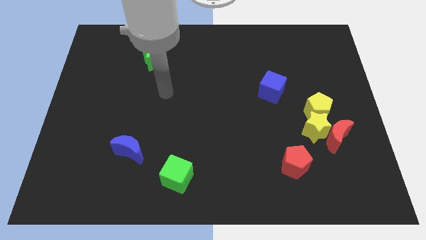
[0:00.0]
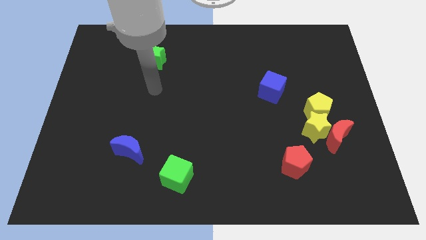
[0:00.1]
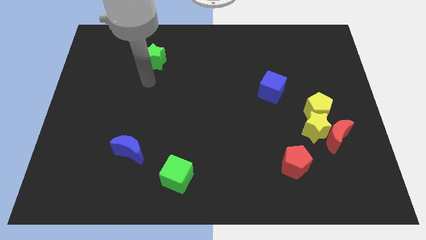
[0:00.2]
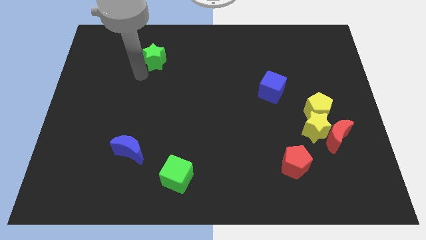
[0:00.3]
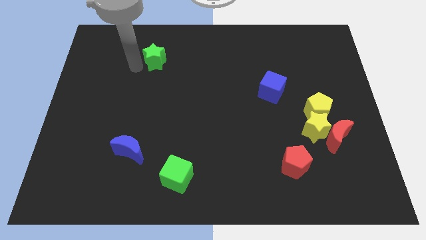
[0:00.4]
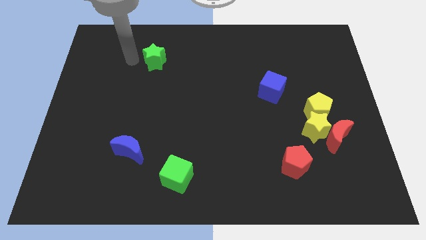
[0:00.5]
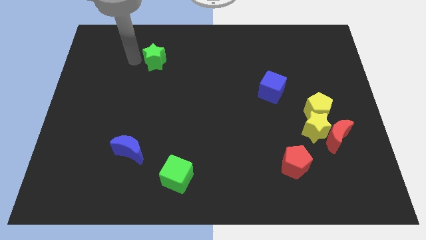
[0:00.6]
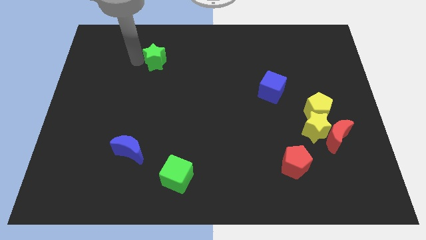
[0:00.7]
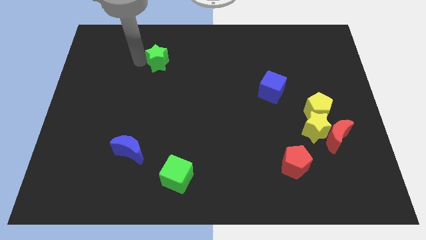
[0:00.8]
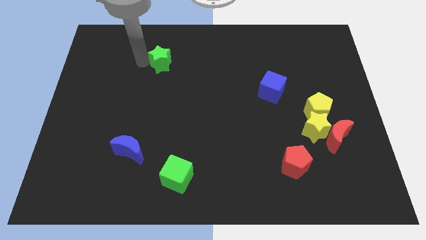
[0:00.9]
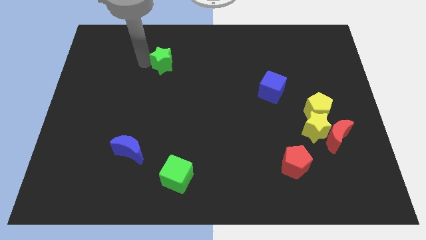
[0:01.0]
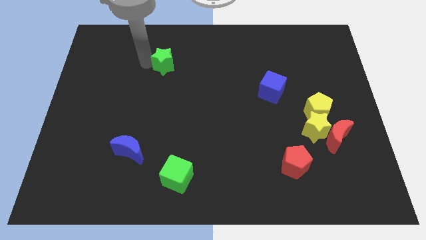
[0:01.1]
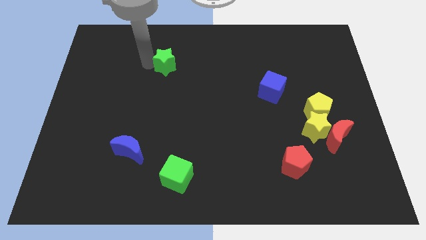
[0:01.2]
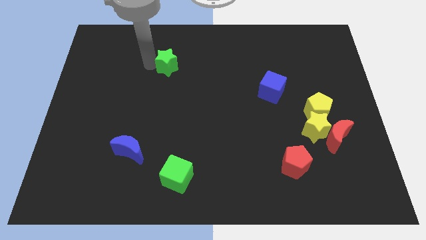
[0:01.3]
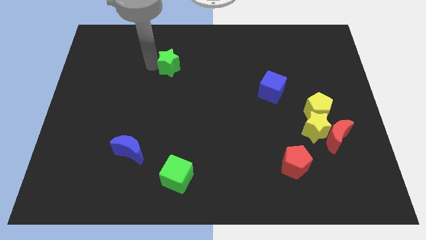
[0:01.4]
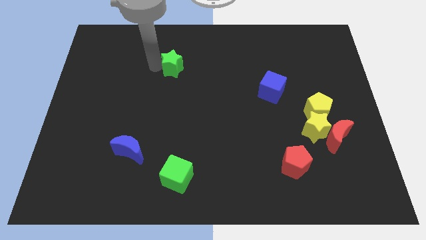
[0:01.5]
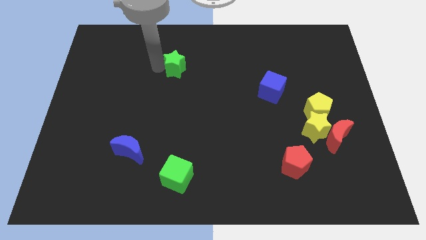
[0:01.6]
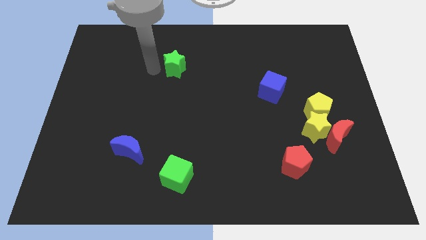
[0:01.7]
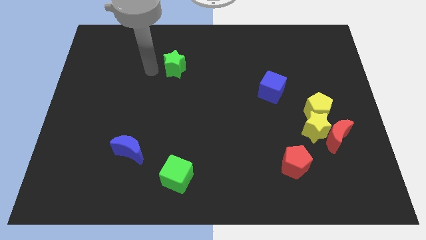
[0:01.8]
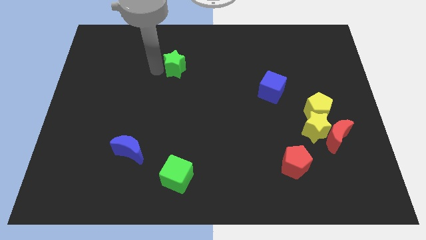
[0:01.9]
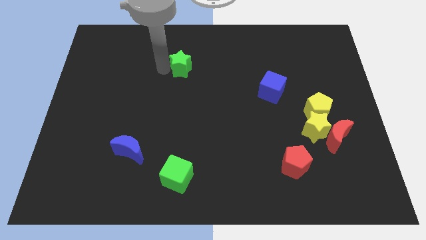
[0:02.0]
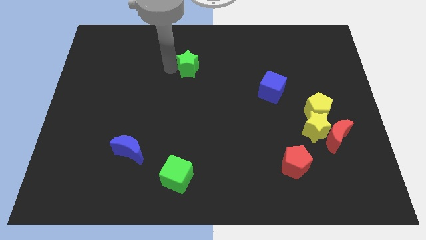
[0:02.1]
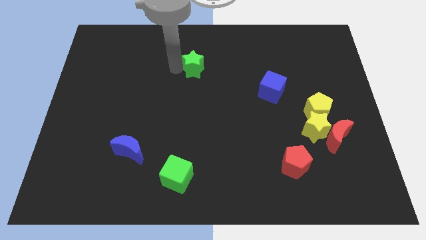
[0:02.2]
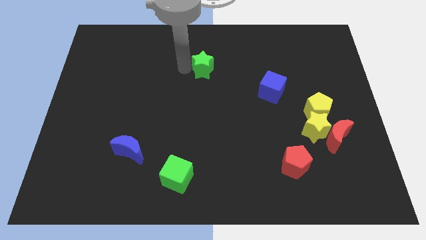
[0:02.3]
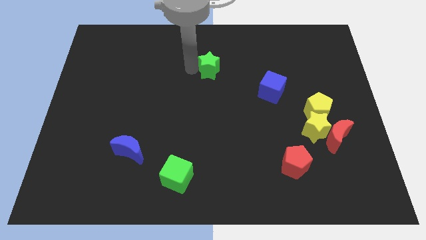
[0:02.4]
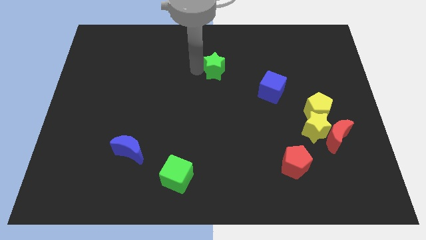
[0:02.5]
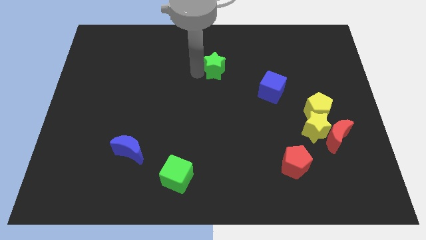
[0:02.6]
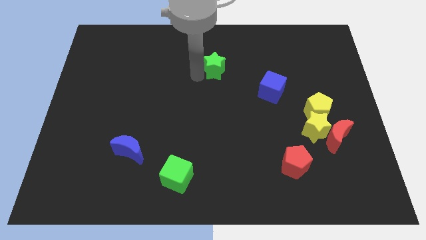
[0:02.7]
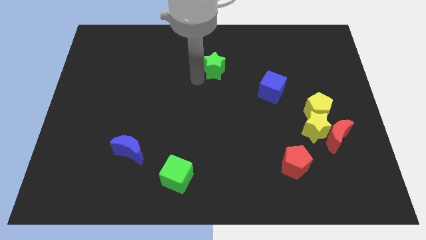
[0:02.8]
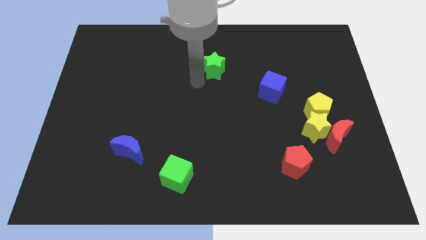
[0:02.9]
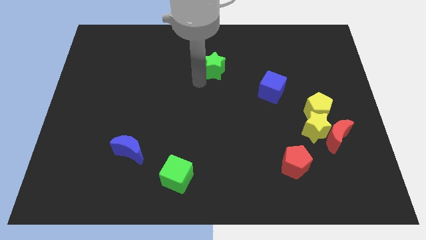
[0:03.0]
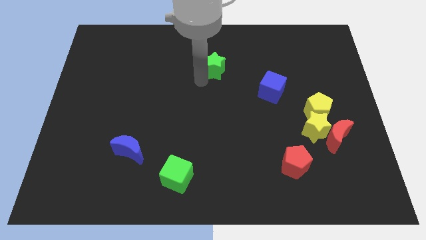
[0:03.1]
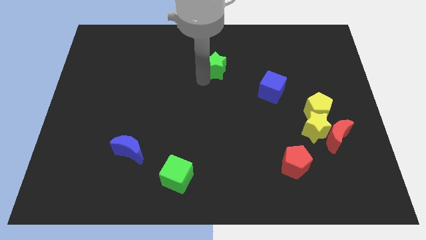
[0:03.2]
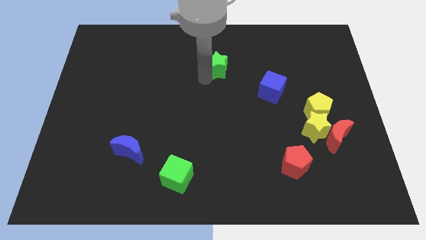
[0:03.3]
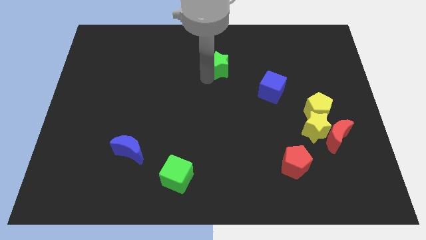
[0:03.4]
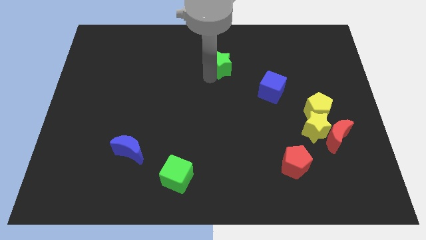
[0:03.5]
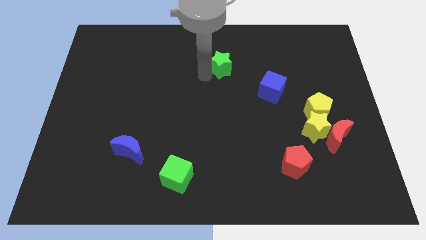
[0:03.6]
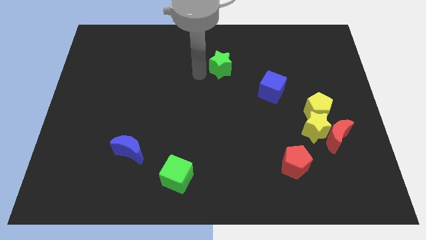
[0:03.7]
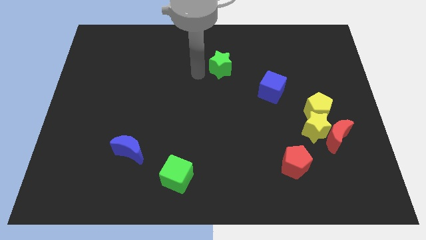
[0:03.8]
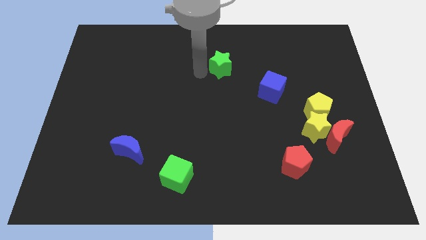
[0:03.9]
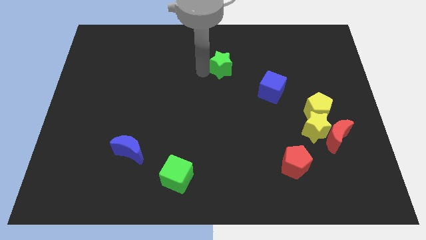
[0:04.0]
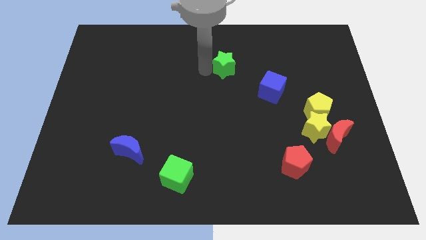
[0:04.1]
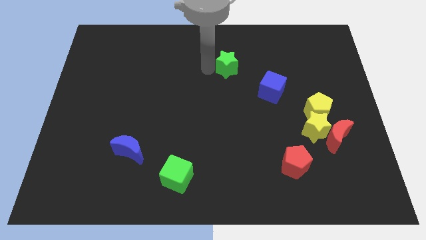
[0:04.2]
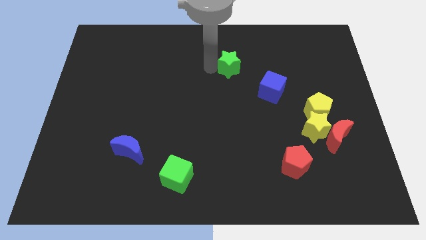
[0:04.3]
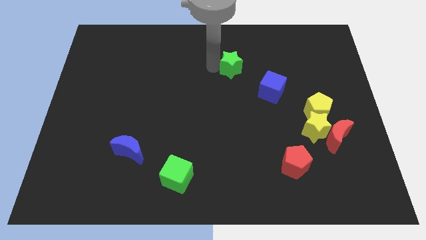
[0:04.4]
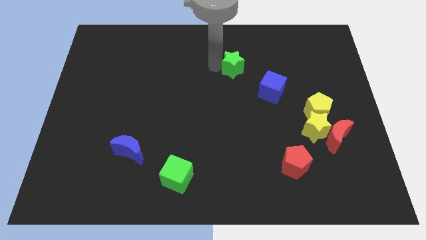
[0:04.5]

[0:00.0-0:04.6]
move the green star to the right

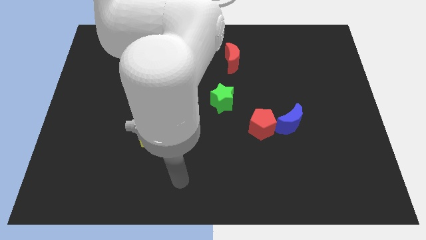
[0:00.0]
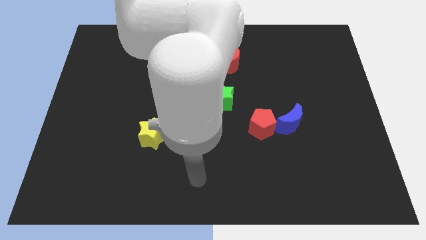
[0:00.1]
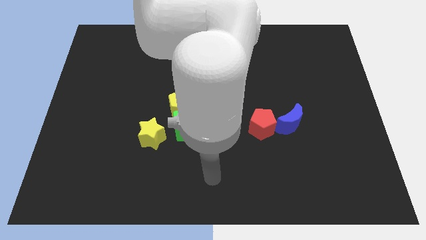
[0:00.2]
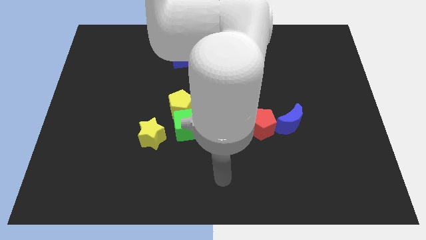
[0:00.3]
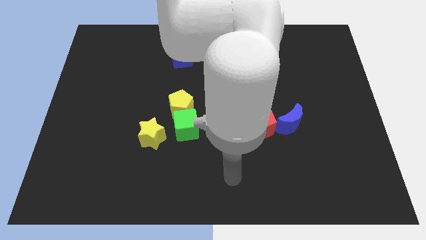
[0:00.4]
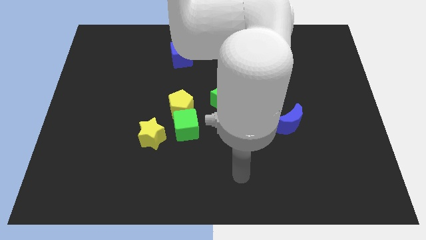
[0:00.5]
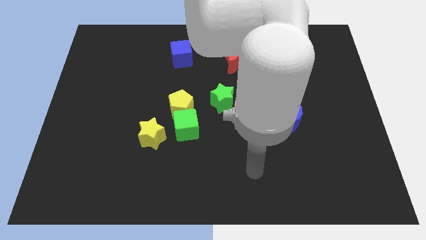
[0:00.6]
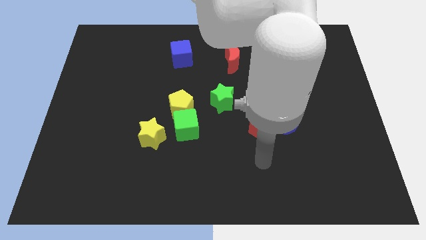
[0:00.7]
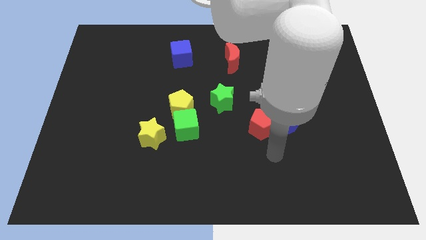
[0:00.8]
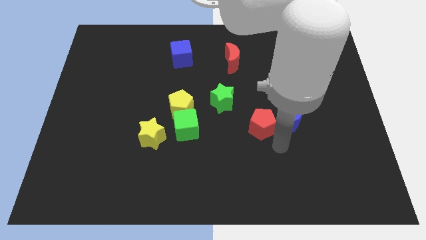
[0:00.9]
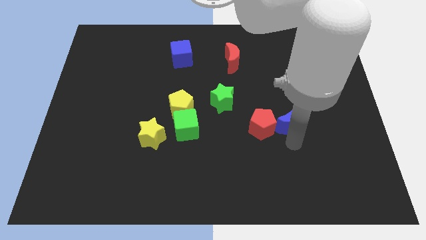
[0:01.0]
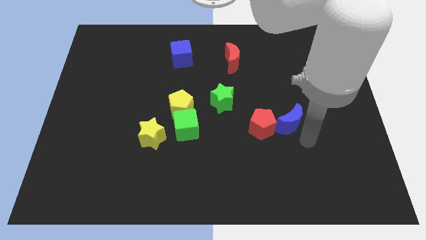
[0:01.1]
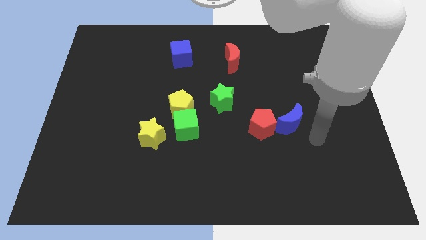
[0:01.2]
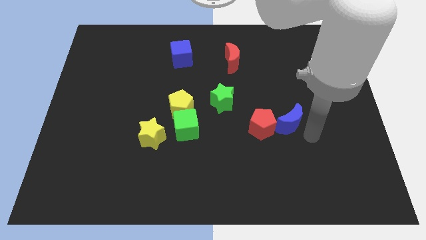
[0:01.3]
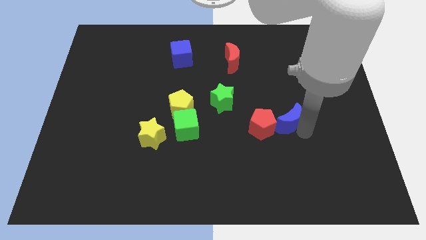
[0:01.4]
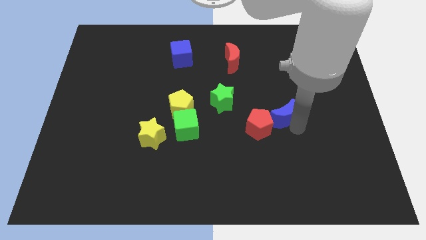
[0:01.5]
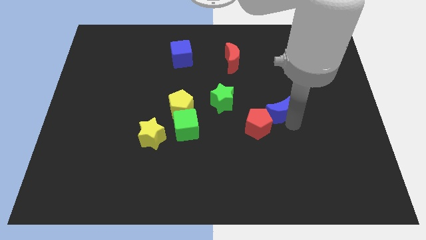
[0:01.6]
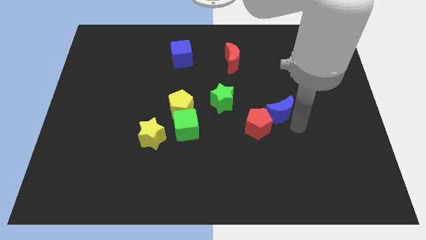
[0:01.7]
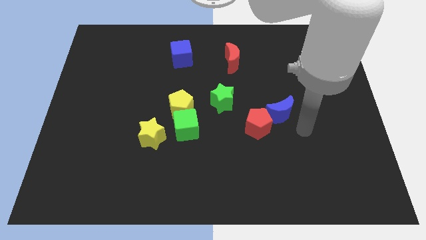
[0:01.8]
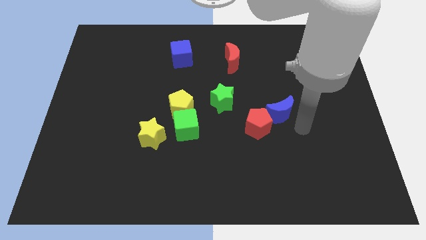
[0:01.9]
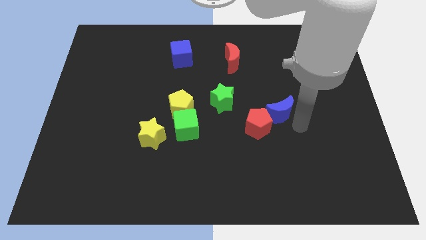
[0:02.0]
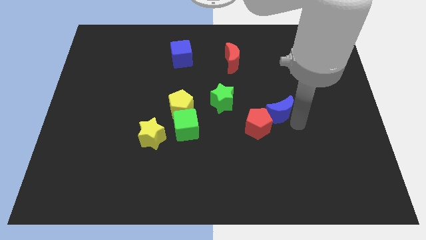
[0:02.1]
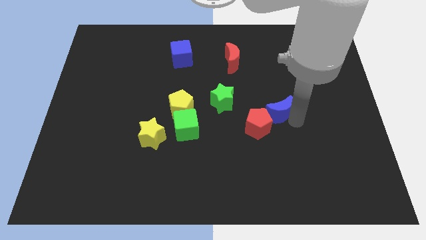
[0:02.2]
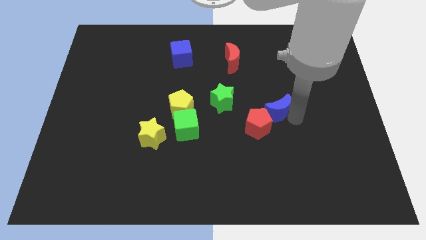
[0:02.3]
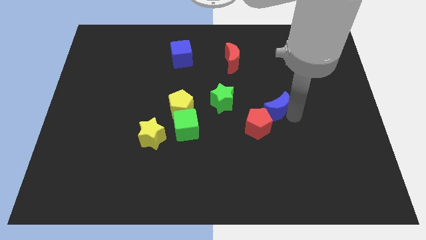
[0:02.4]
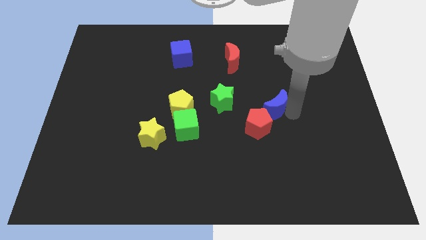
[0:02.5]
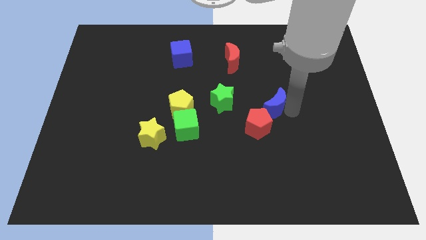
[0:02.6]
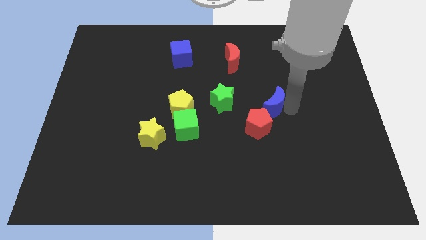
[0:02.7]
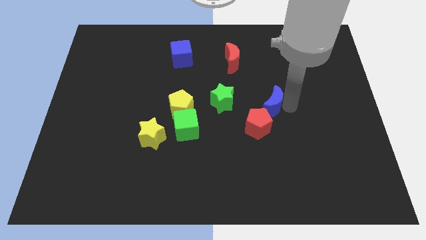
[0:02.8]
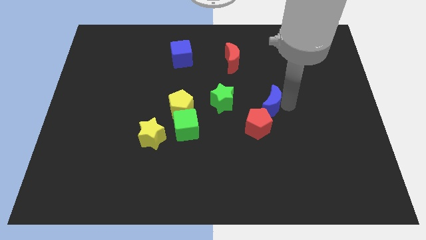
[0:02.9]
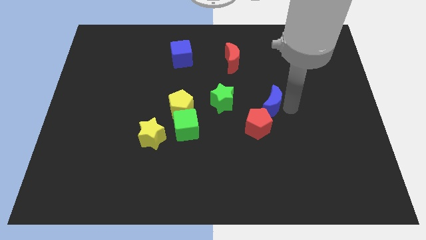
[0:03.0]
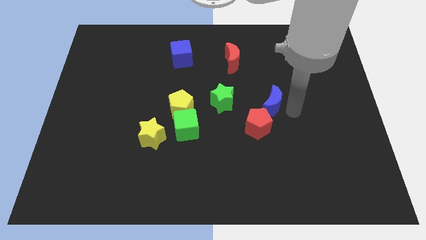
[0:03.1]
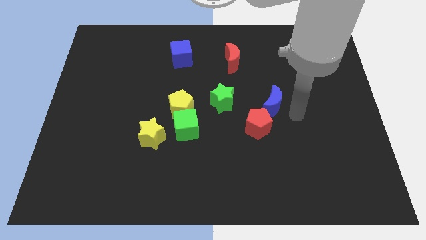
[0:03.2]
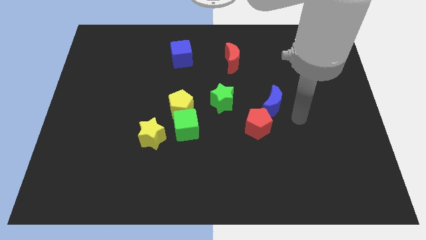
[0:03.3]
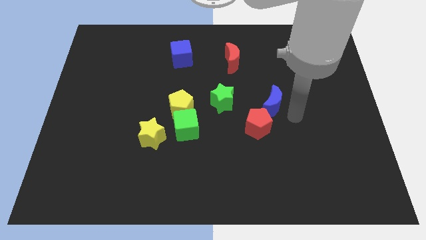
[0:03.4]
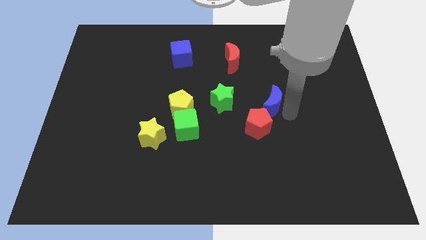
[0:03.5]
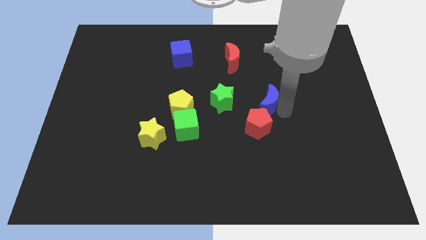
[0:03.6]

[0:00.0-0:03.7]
slide the blue moon diagonally up and left somewhat

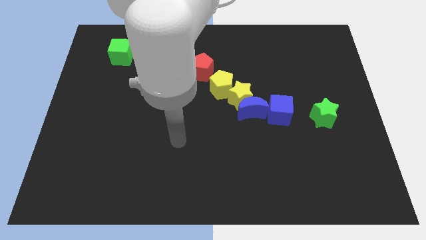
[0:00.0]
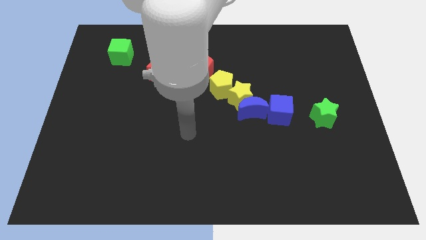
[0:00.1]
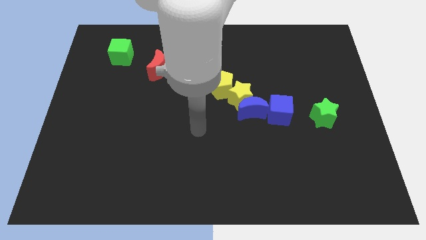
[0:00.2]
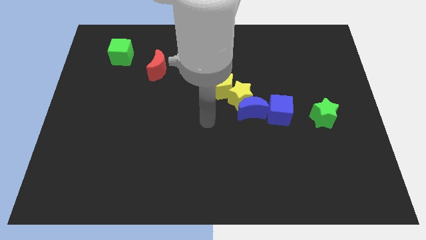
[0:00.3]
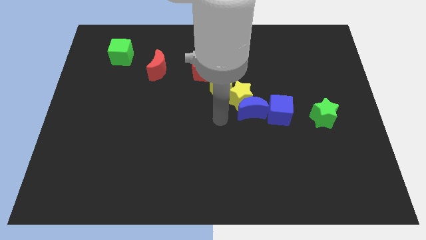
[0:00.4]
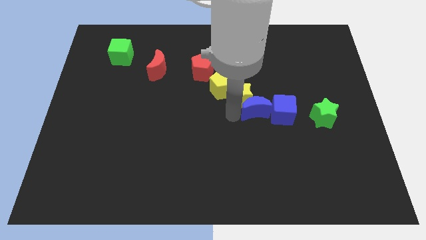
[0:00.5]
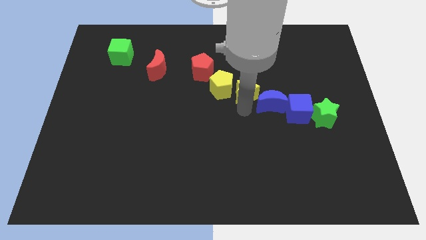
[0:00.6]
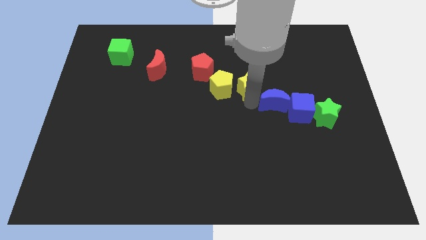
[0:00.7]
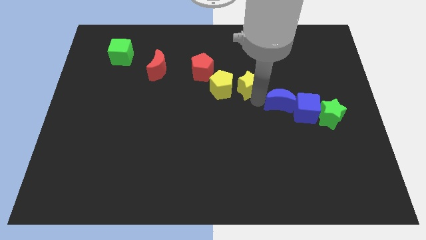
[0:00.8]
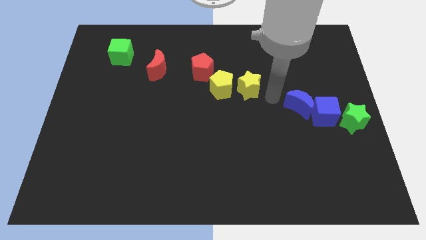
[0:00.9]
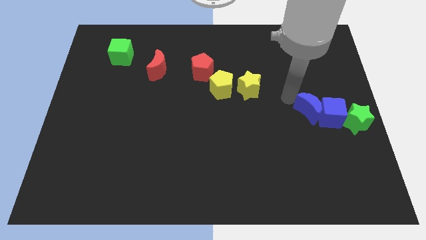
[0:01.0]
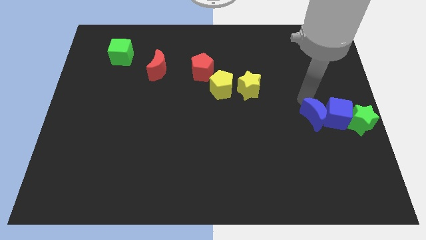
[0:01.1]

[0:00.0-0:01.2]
slide the blue cube down and then to the right a bit
